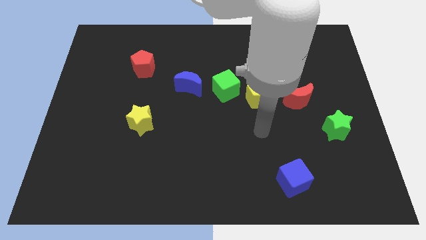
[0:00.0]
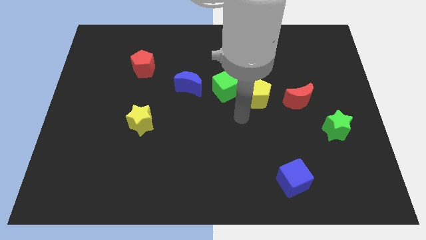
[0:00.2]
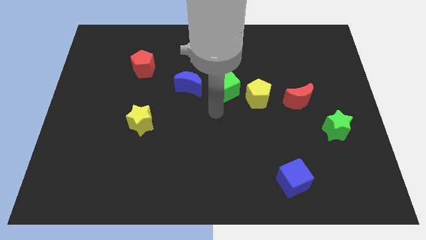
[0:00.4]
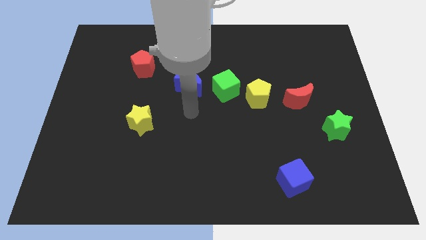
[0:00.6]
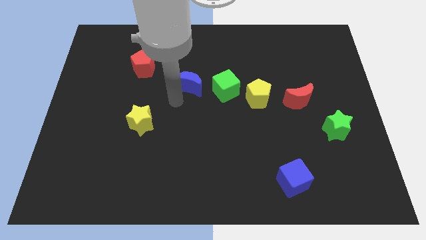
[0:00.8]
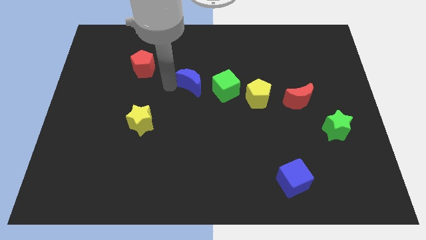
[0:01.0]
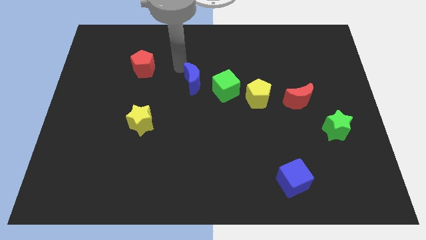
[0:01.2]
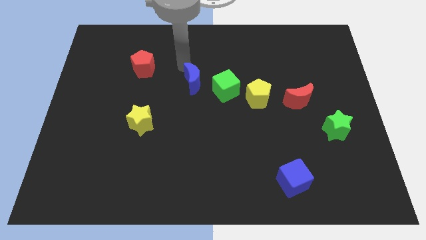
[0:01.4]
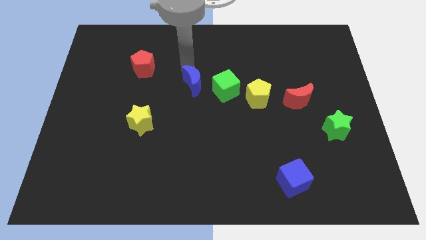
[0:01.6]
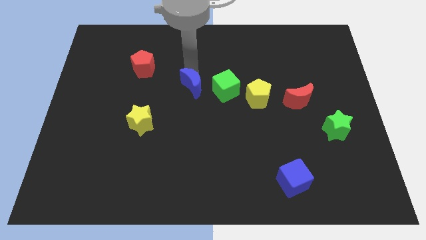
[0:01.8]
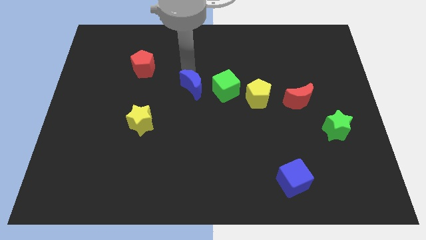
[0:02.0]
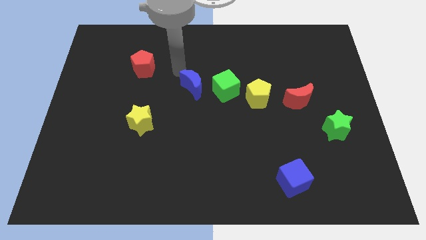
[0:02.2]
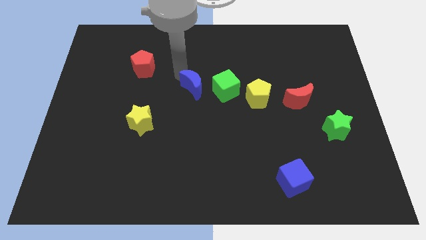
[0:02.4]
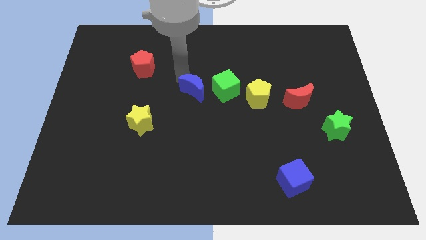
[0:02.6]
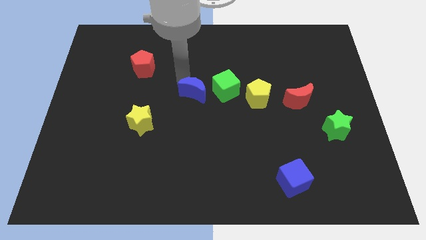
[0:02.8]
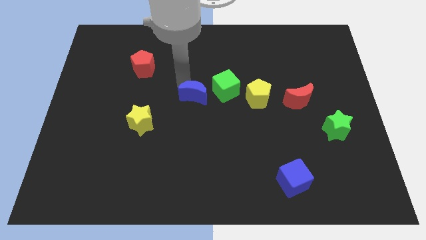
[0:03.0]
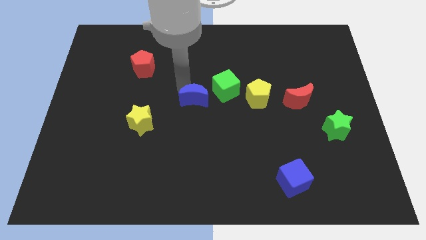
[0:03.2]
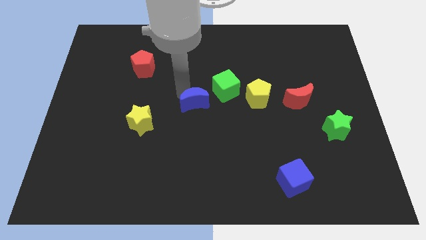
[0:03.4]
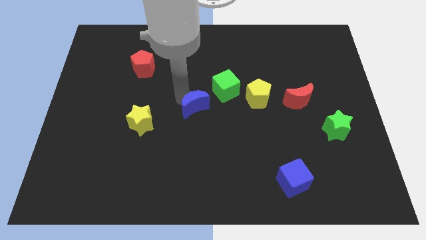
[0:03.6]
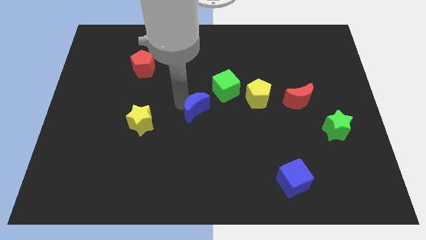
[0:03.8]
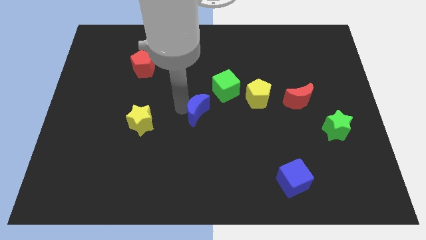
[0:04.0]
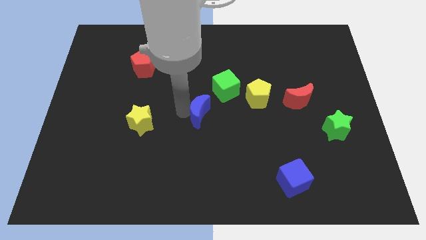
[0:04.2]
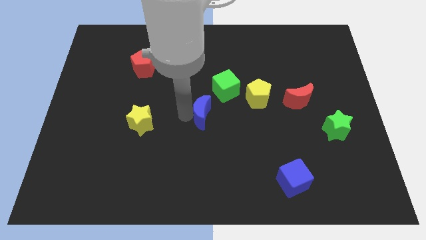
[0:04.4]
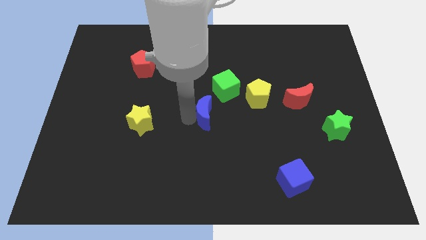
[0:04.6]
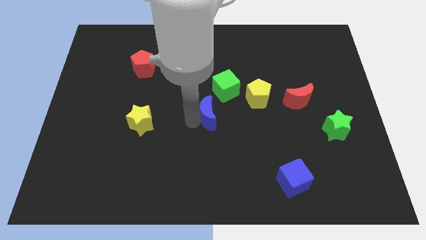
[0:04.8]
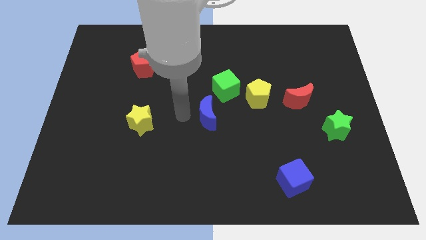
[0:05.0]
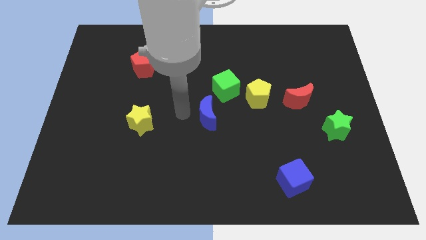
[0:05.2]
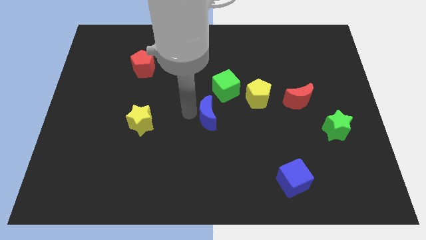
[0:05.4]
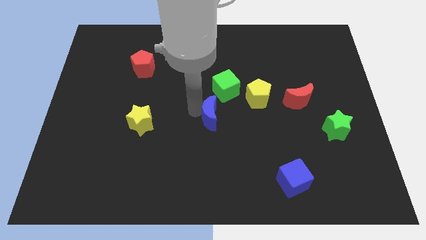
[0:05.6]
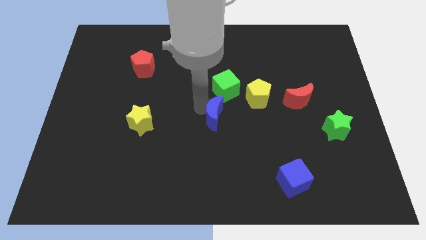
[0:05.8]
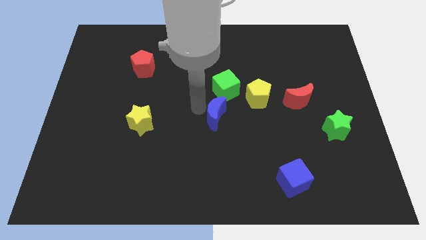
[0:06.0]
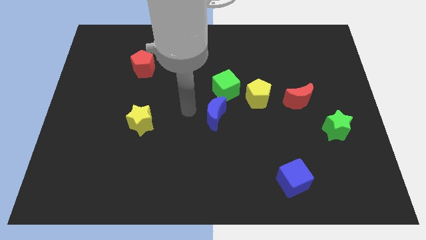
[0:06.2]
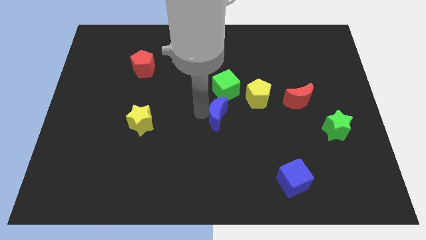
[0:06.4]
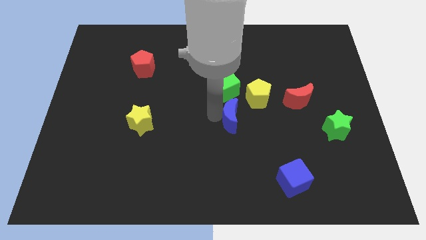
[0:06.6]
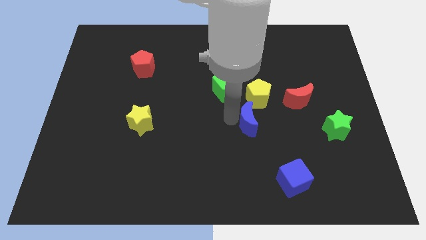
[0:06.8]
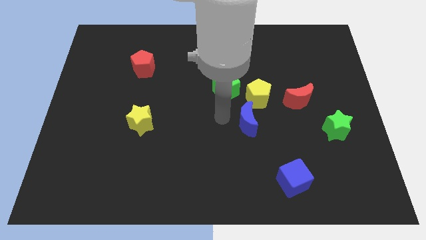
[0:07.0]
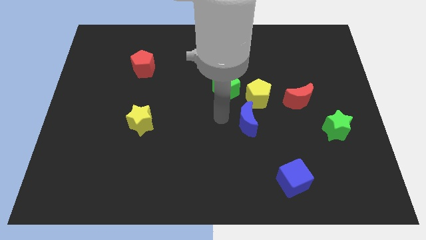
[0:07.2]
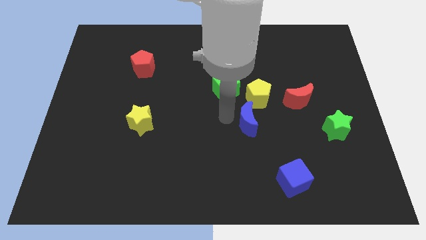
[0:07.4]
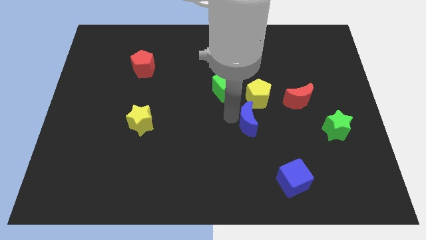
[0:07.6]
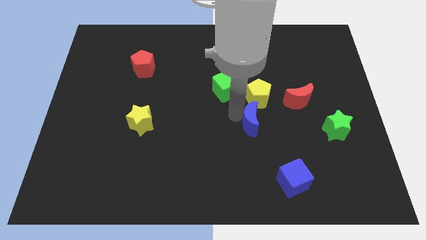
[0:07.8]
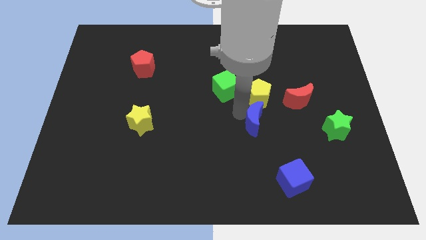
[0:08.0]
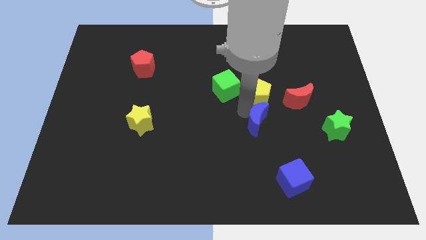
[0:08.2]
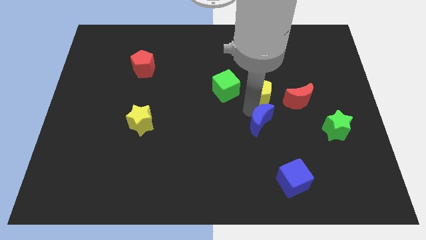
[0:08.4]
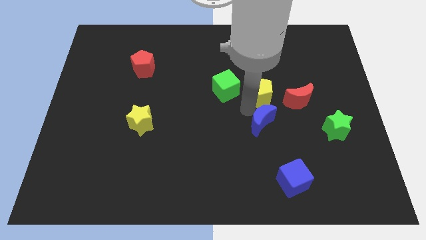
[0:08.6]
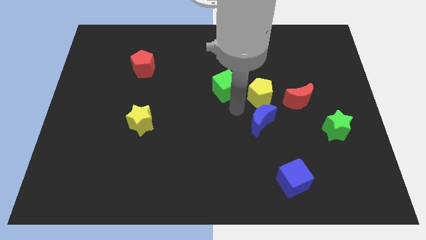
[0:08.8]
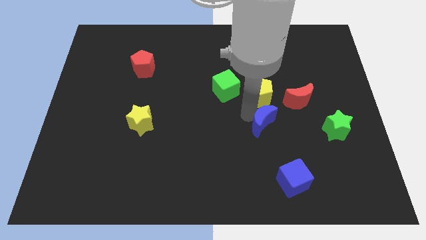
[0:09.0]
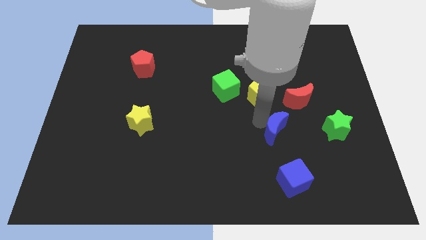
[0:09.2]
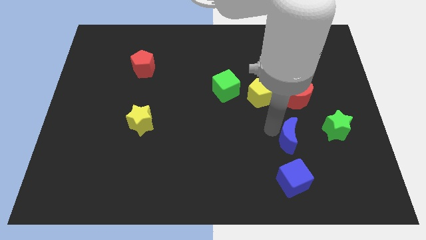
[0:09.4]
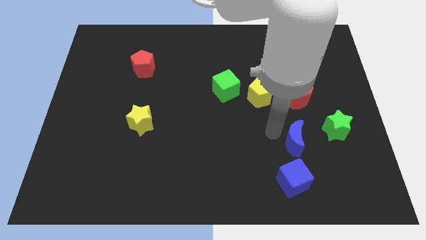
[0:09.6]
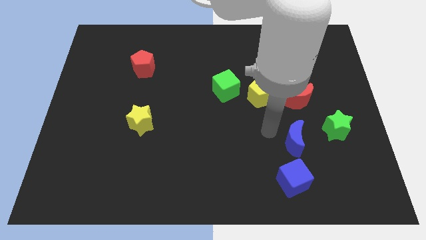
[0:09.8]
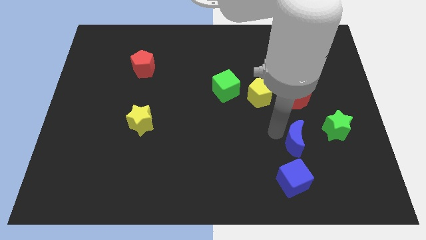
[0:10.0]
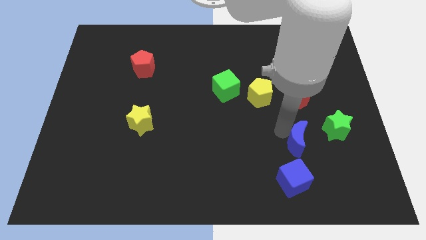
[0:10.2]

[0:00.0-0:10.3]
put the blue moon diagonally down and to the left of the green star

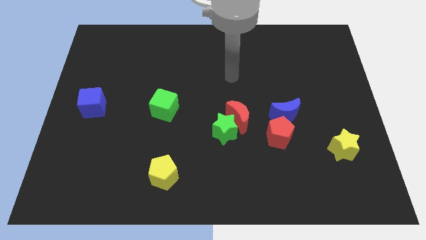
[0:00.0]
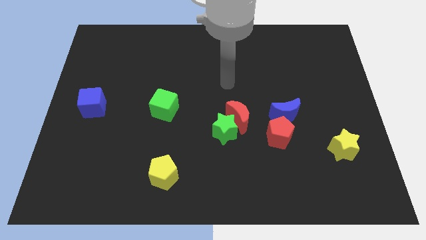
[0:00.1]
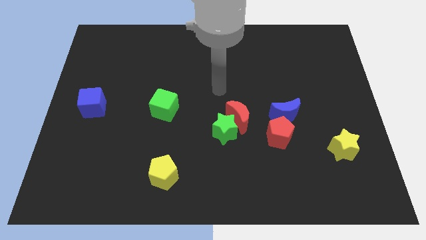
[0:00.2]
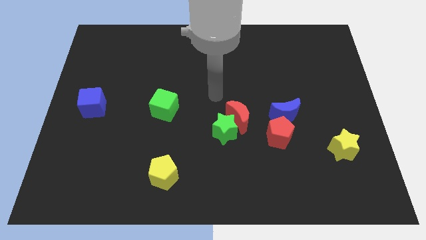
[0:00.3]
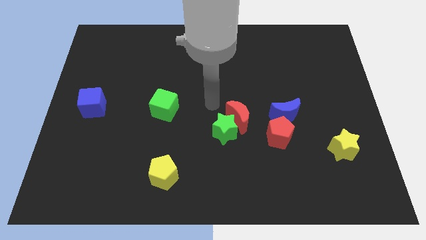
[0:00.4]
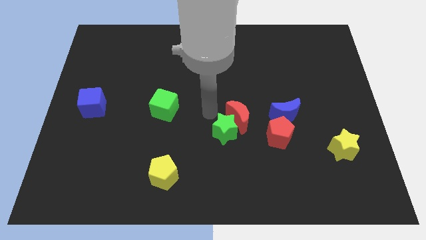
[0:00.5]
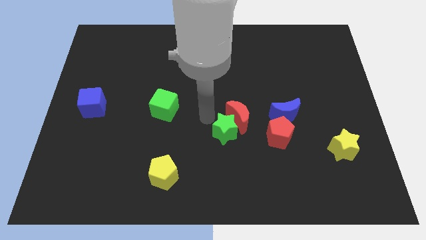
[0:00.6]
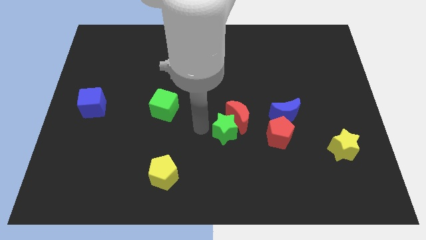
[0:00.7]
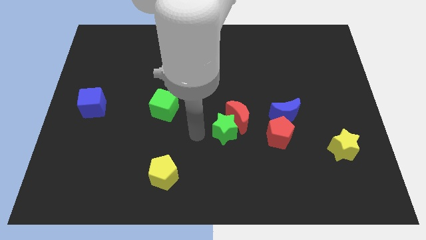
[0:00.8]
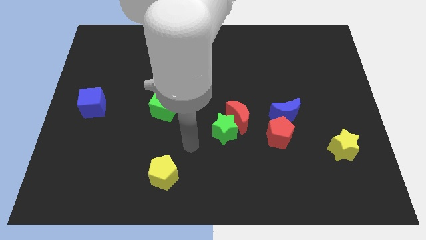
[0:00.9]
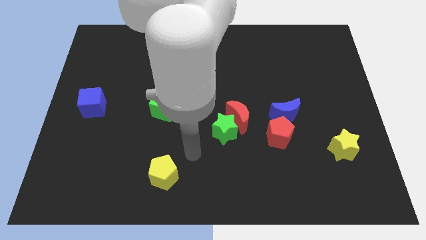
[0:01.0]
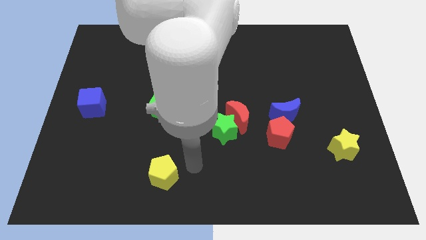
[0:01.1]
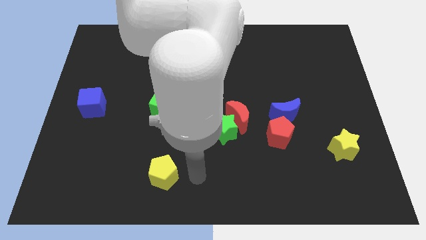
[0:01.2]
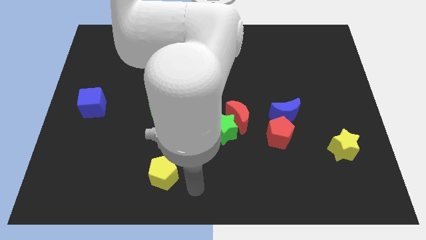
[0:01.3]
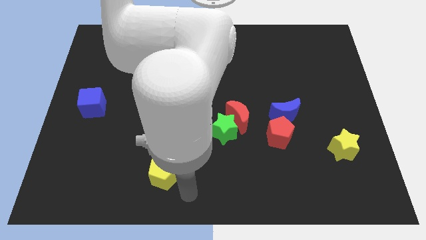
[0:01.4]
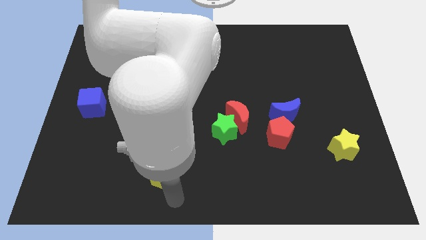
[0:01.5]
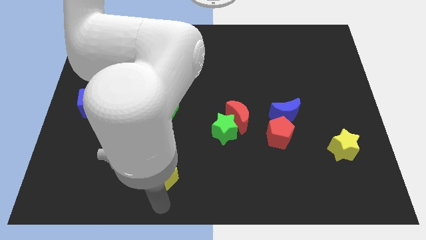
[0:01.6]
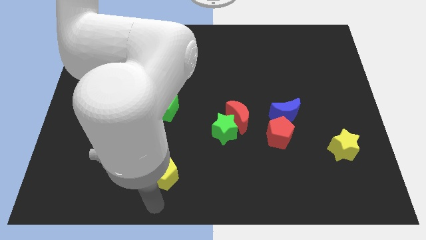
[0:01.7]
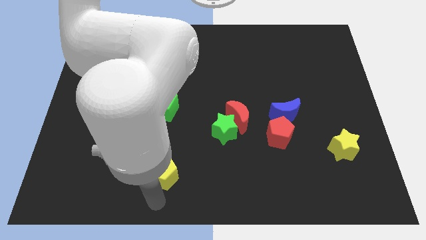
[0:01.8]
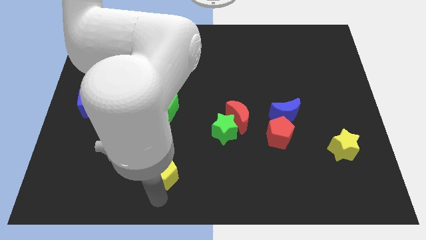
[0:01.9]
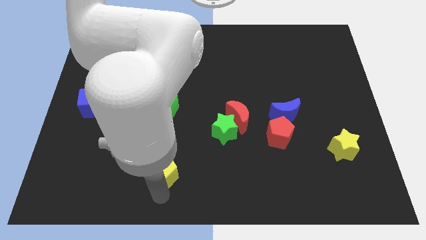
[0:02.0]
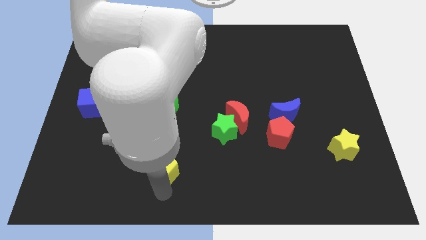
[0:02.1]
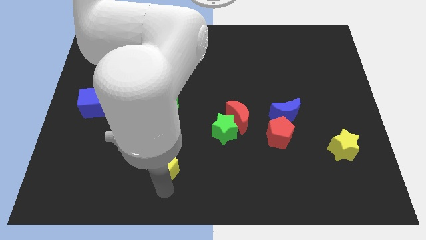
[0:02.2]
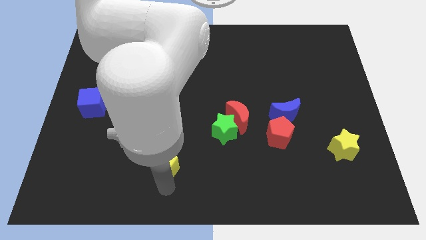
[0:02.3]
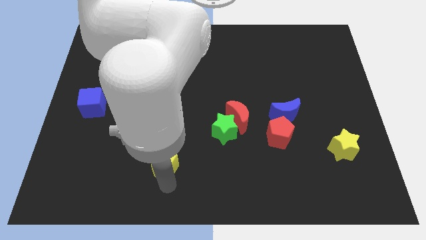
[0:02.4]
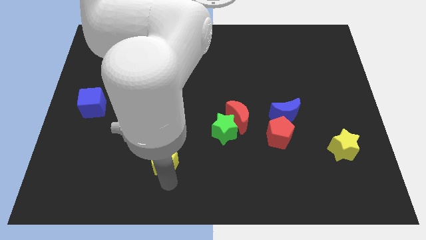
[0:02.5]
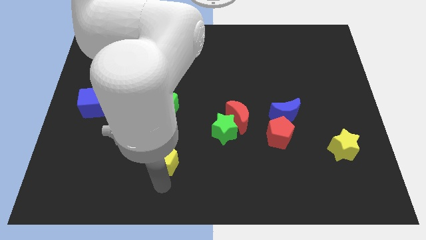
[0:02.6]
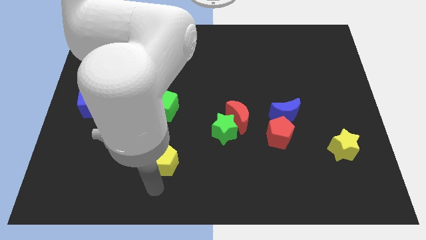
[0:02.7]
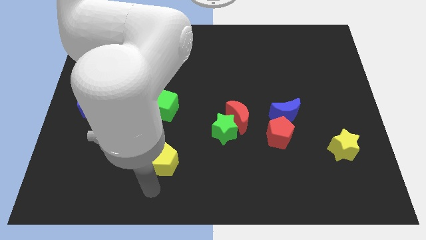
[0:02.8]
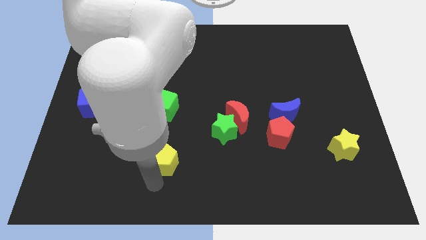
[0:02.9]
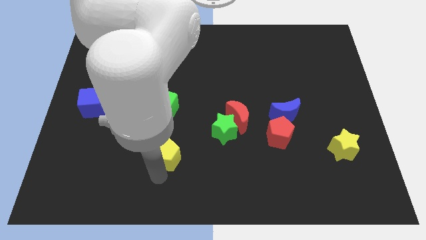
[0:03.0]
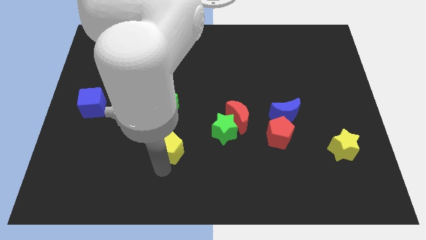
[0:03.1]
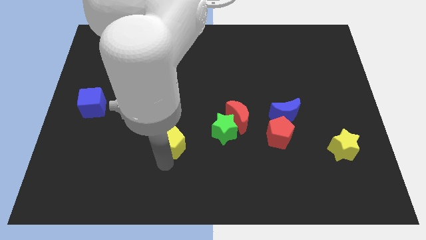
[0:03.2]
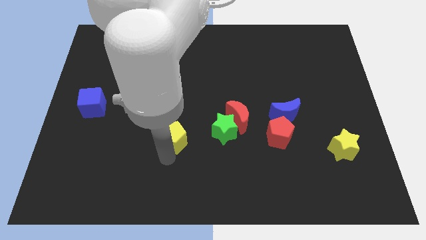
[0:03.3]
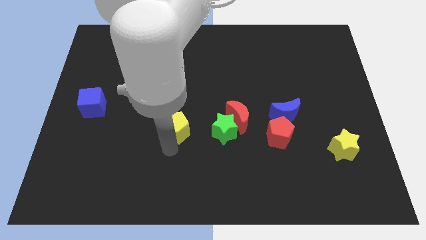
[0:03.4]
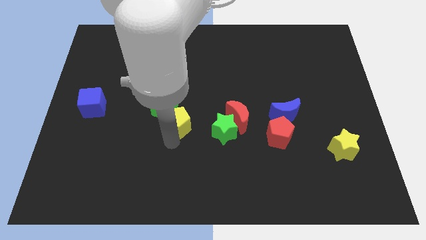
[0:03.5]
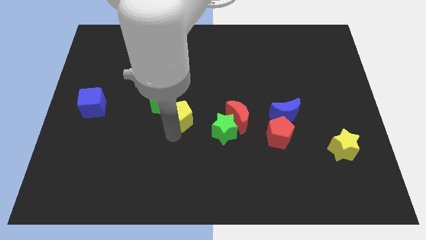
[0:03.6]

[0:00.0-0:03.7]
move the yellow pentagon to the top left of the green star
